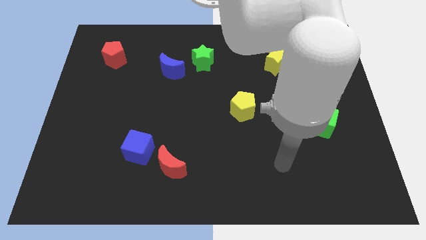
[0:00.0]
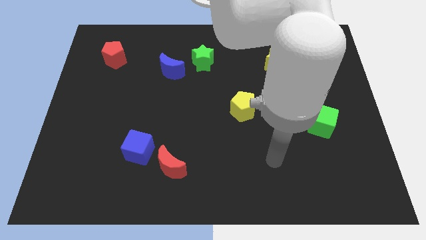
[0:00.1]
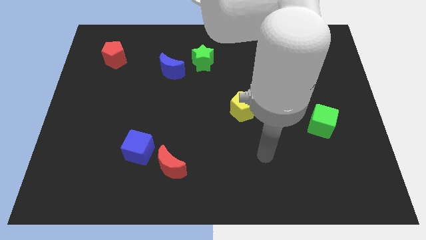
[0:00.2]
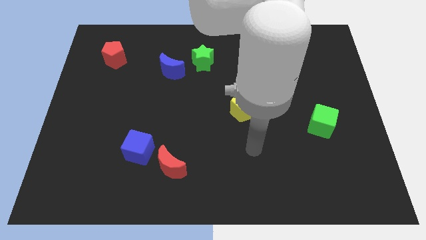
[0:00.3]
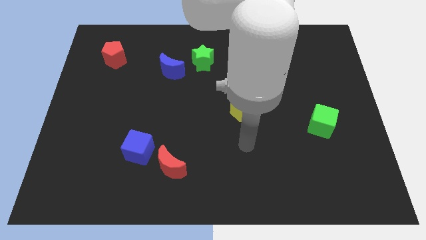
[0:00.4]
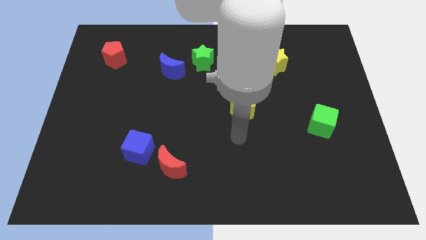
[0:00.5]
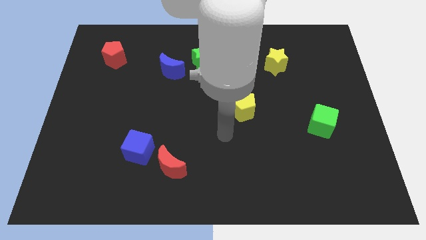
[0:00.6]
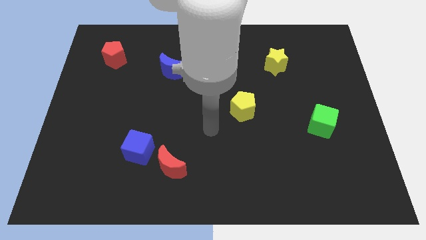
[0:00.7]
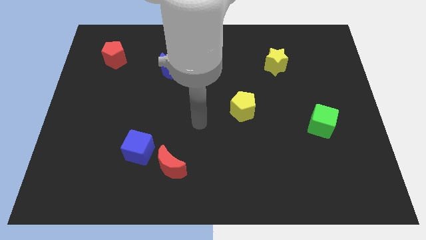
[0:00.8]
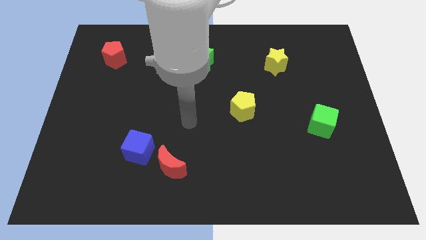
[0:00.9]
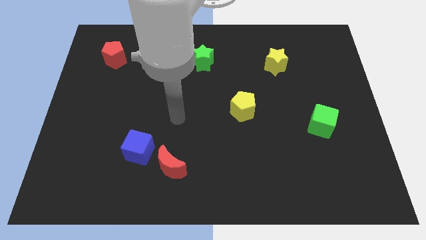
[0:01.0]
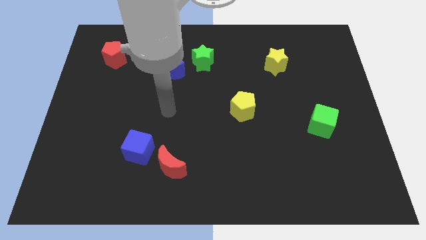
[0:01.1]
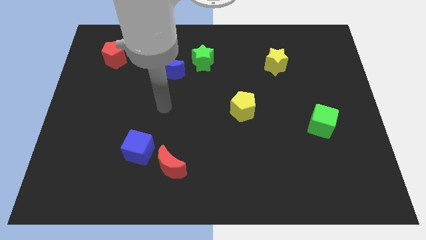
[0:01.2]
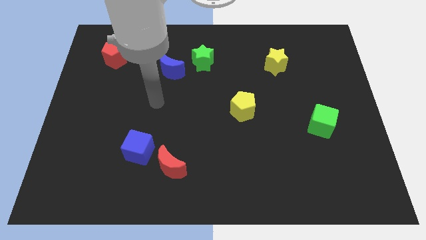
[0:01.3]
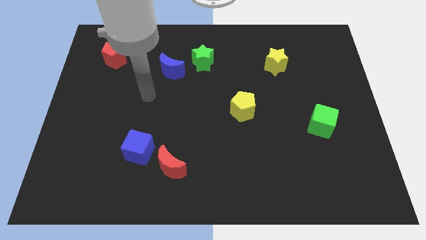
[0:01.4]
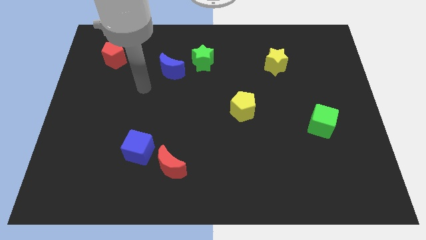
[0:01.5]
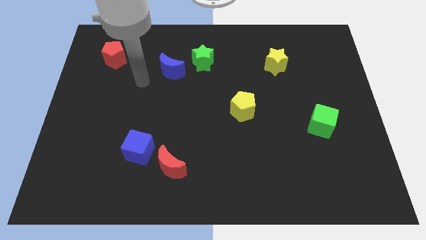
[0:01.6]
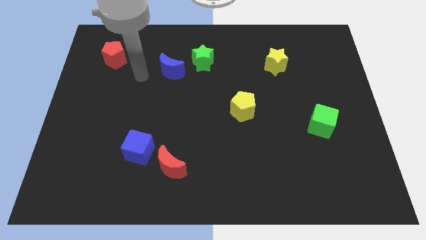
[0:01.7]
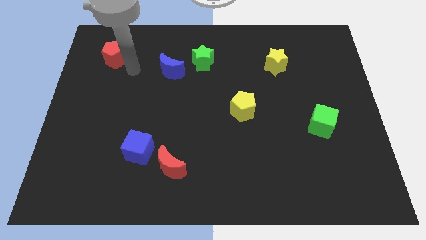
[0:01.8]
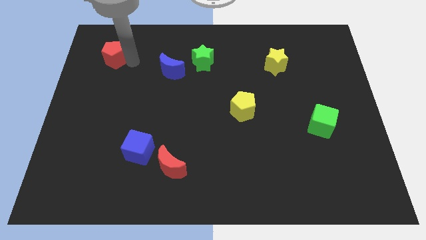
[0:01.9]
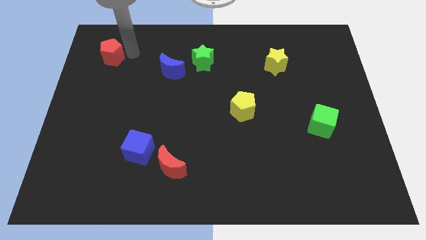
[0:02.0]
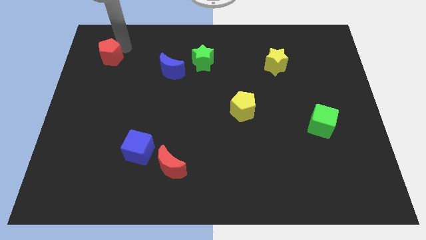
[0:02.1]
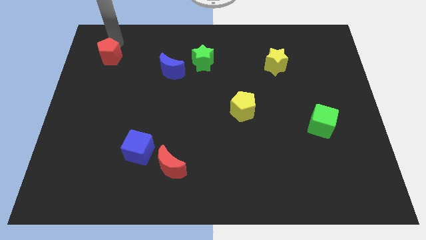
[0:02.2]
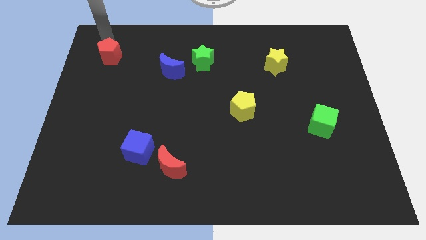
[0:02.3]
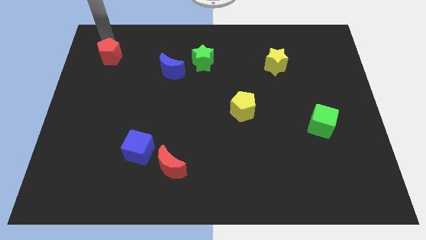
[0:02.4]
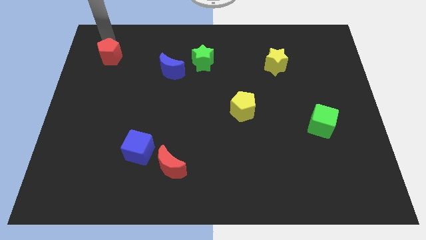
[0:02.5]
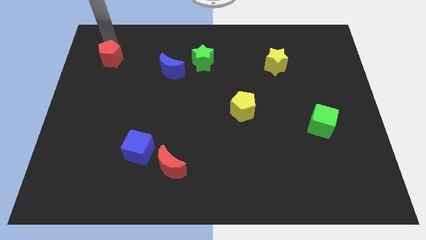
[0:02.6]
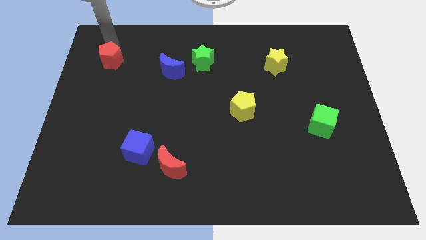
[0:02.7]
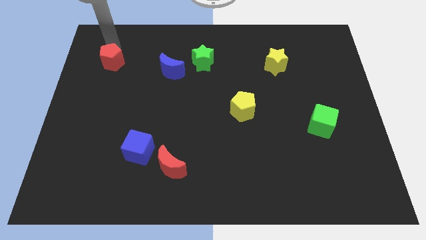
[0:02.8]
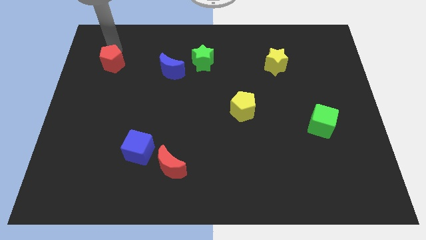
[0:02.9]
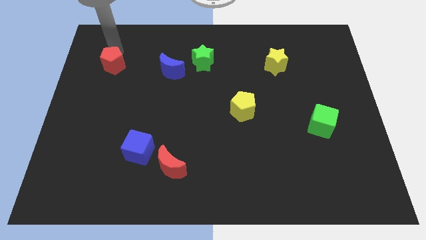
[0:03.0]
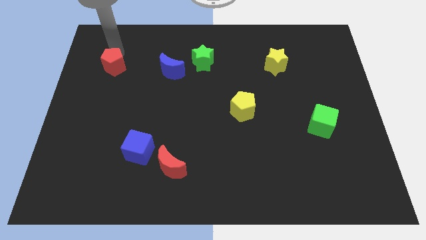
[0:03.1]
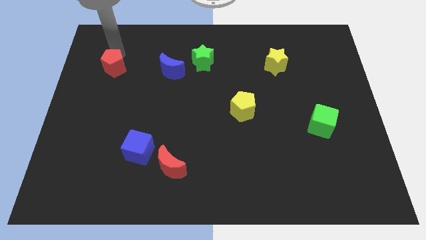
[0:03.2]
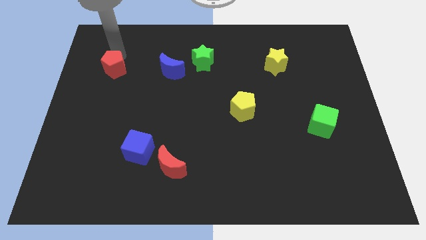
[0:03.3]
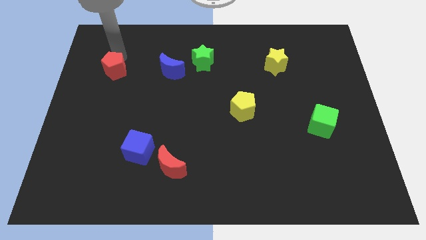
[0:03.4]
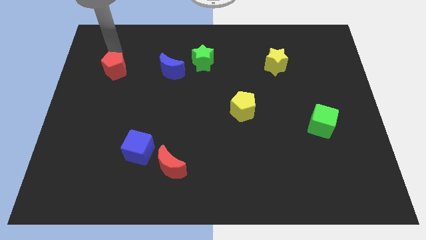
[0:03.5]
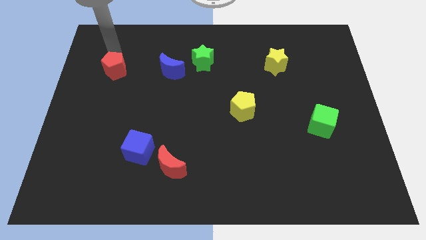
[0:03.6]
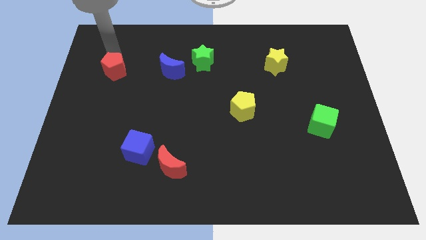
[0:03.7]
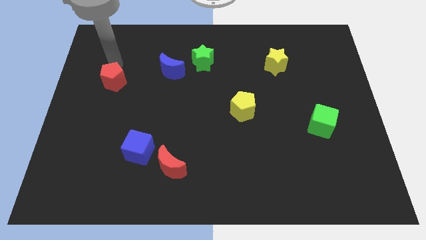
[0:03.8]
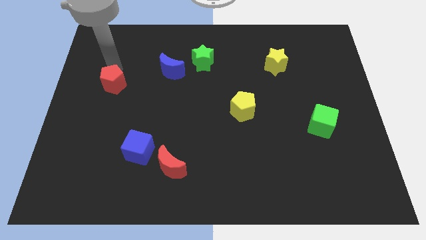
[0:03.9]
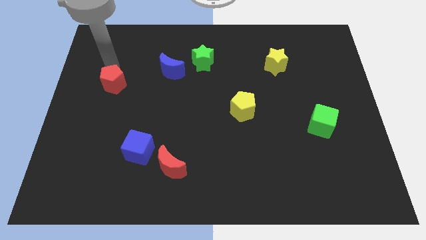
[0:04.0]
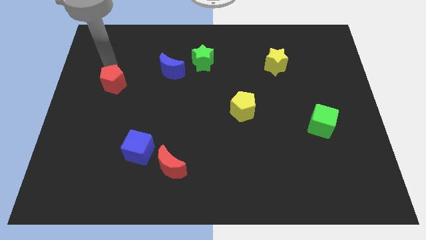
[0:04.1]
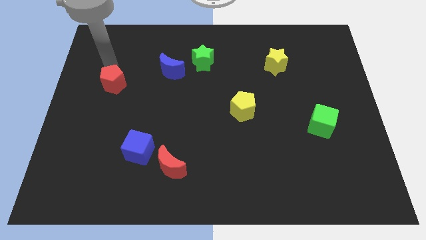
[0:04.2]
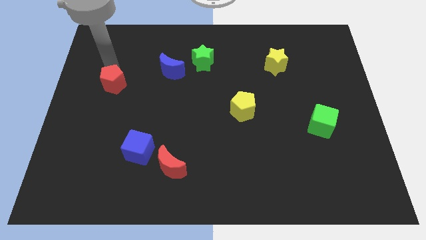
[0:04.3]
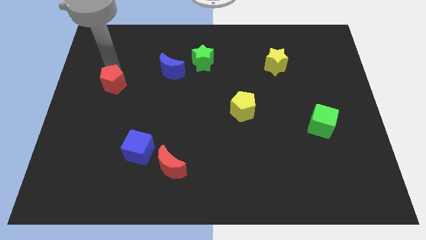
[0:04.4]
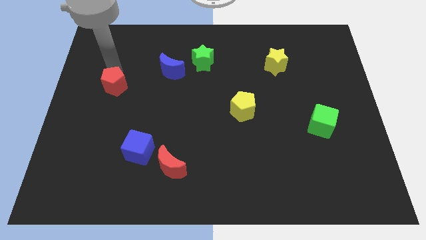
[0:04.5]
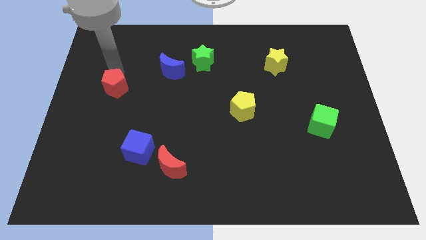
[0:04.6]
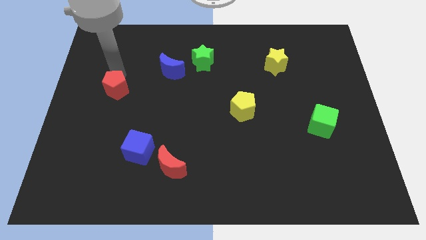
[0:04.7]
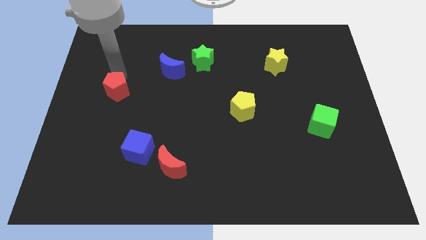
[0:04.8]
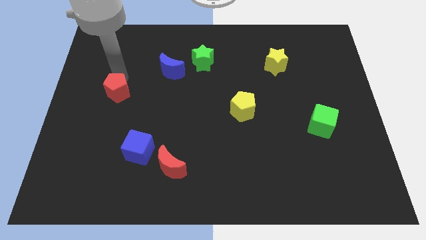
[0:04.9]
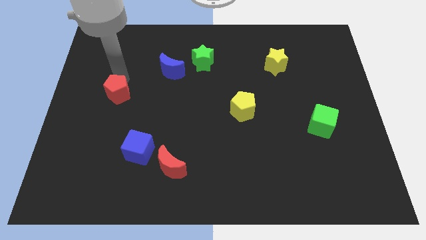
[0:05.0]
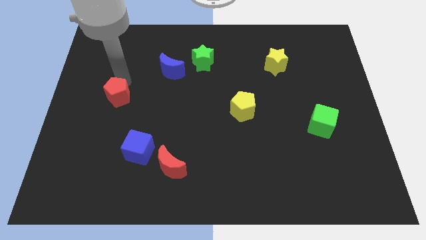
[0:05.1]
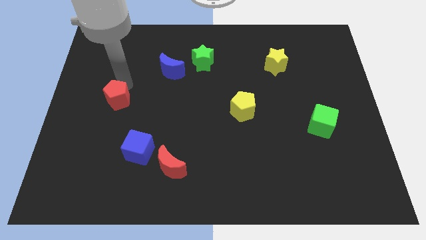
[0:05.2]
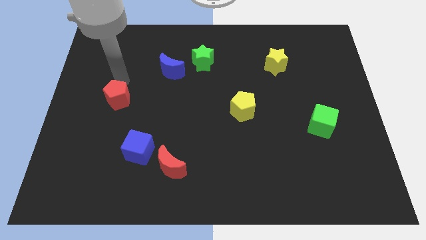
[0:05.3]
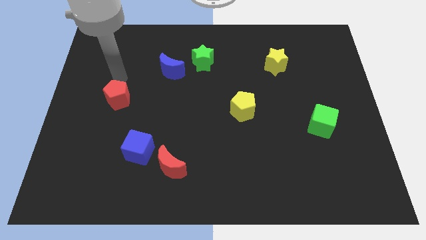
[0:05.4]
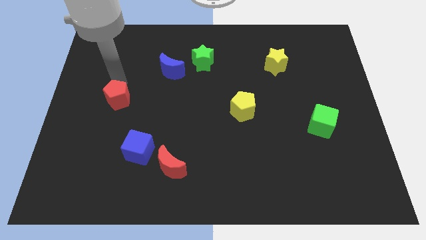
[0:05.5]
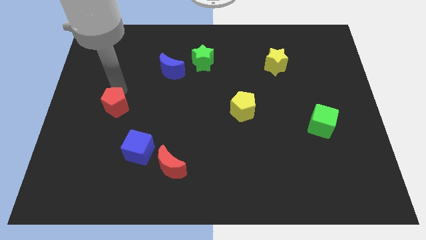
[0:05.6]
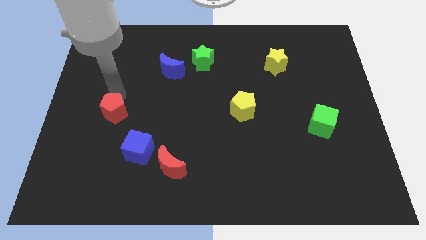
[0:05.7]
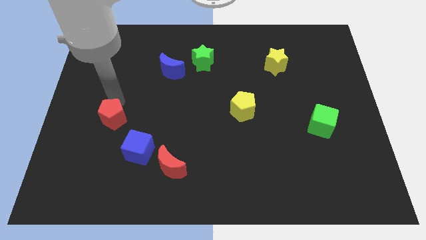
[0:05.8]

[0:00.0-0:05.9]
move the red pentagon diagonally up and to the left of the blue cube
